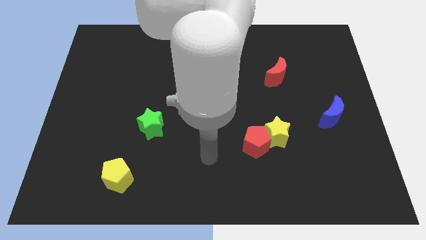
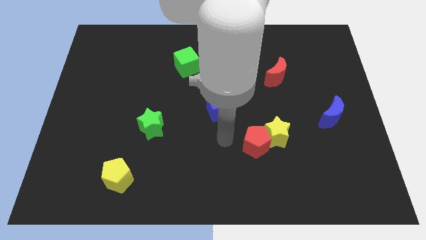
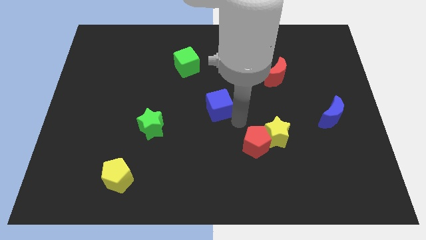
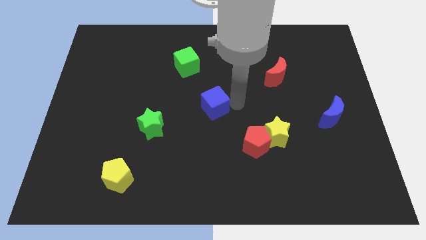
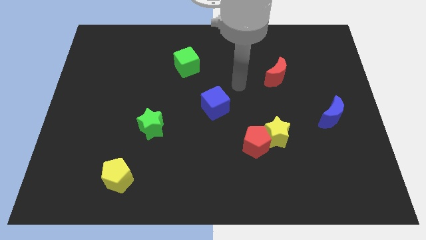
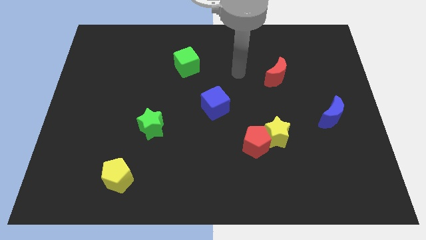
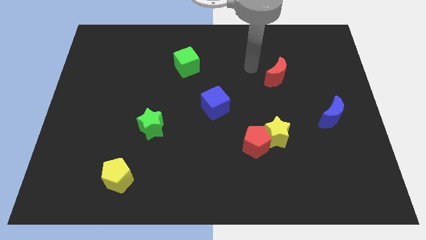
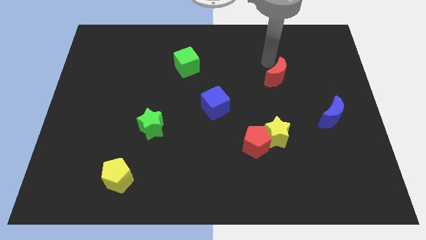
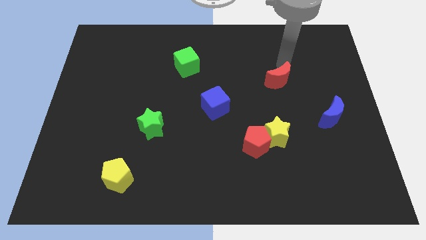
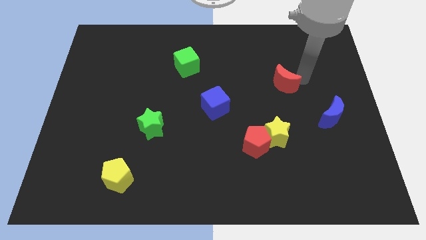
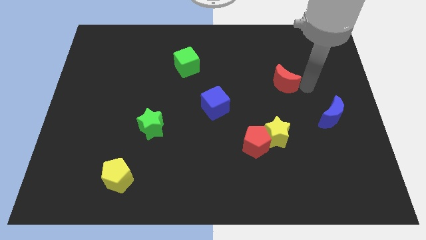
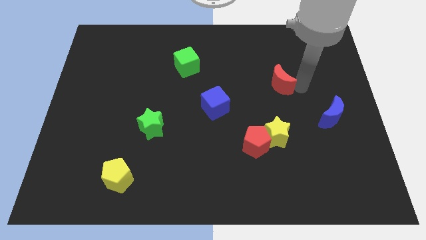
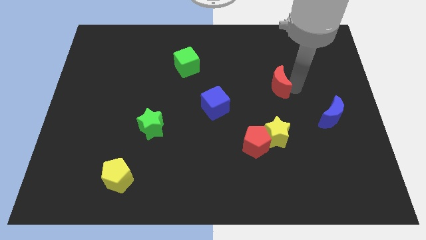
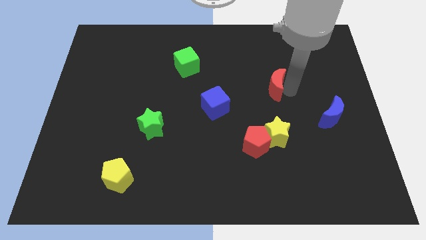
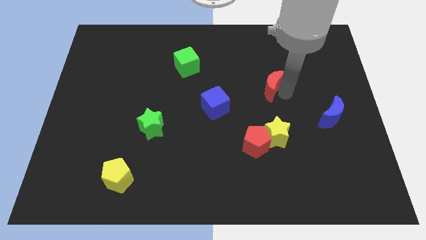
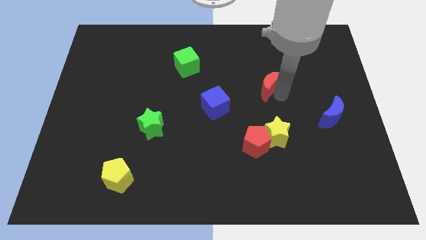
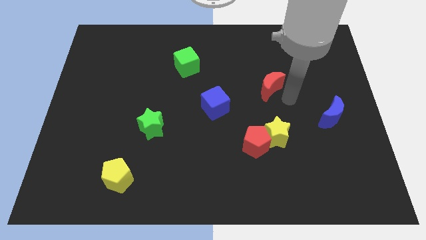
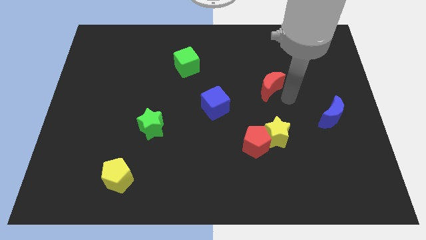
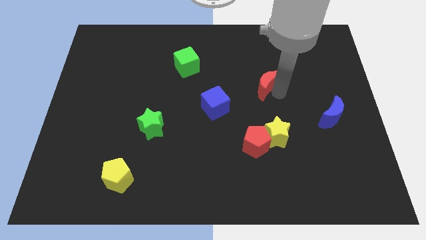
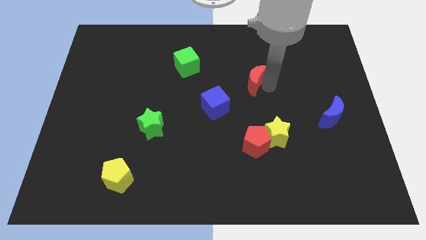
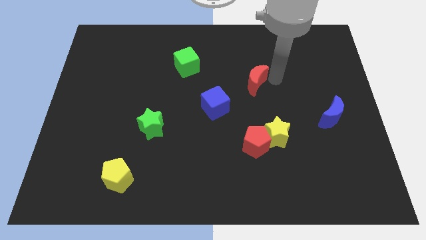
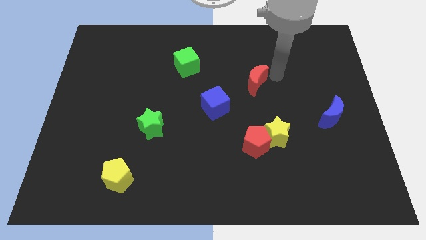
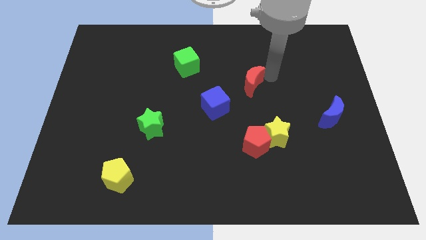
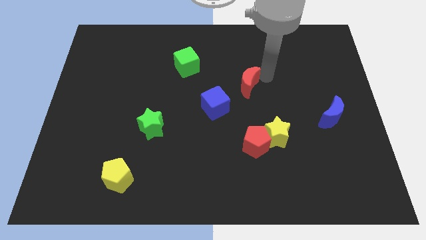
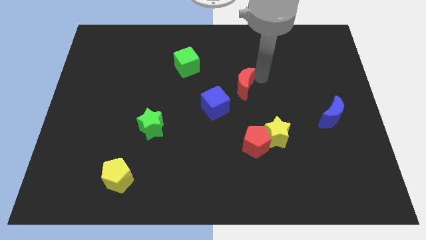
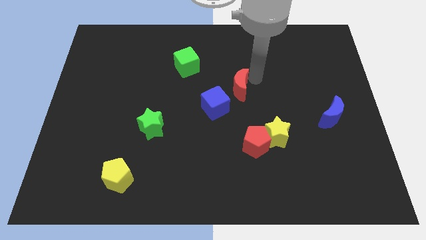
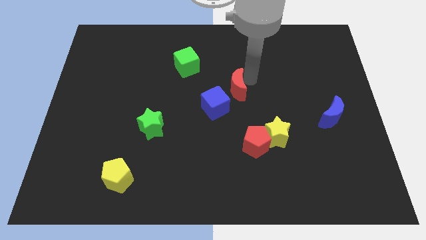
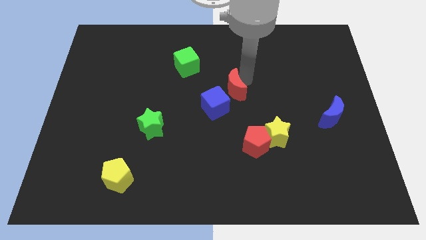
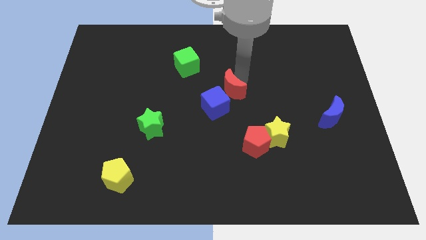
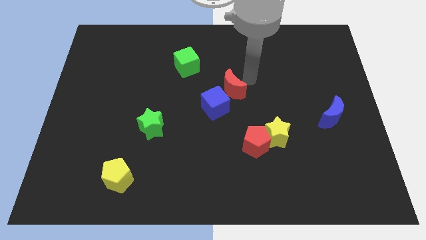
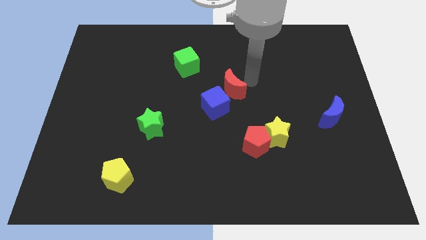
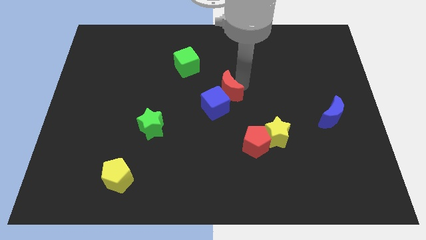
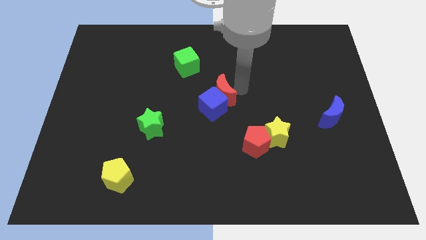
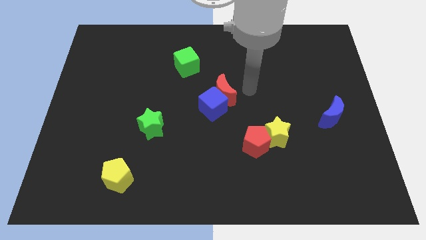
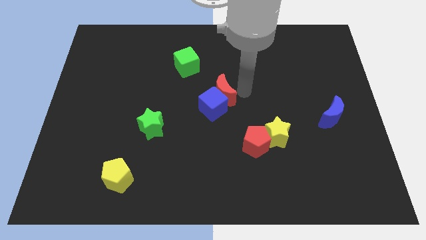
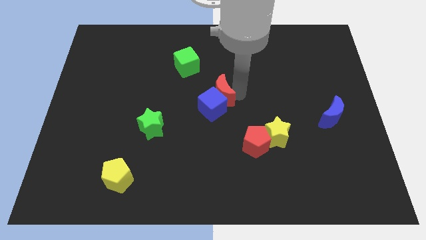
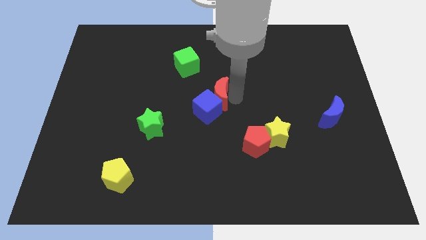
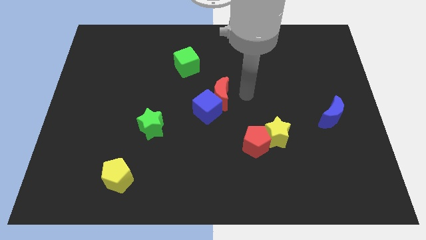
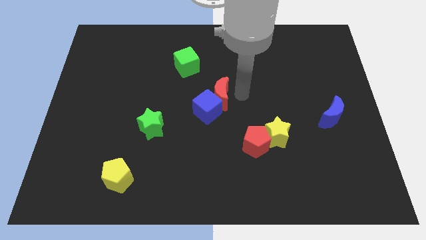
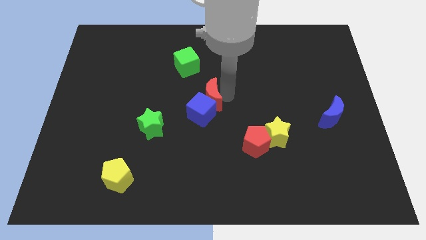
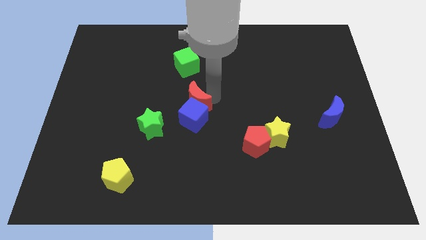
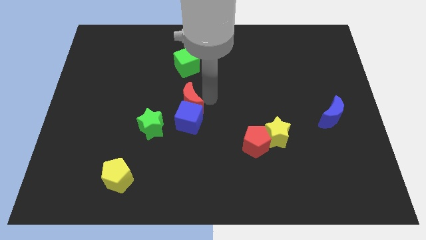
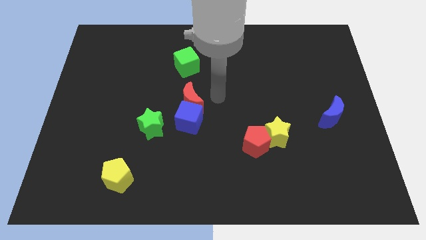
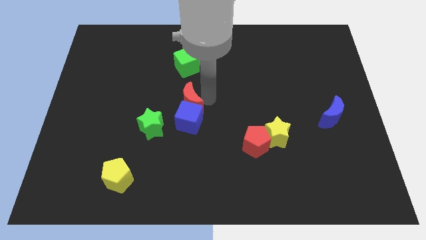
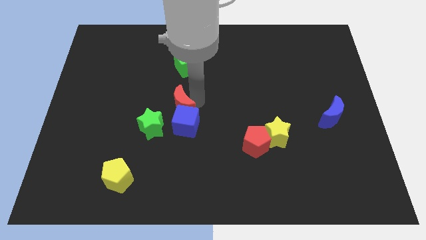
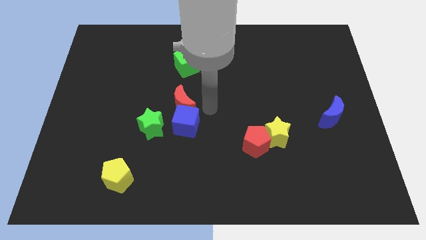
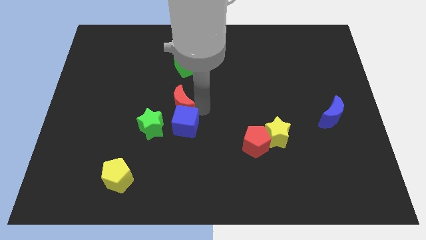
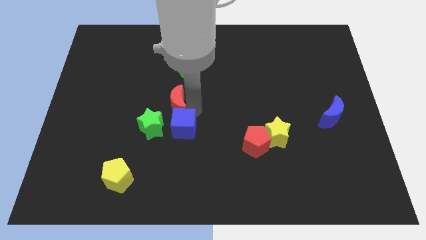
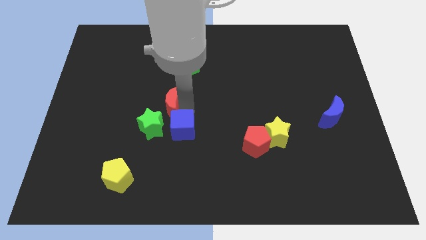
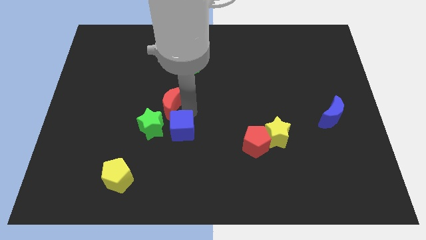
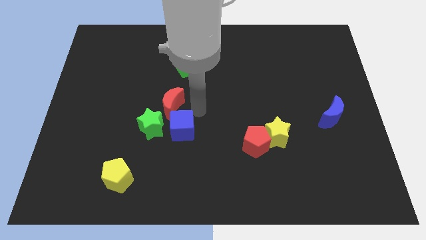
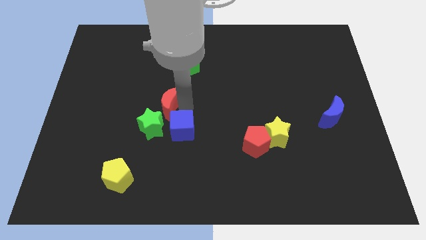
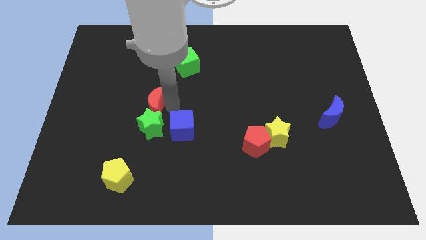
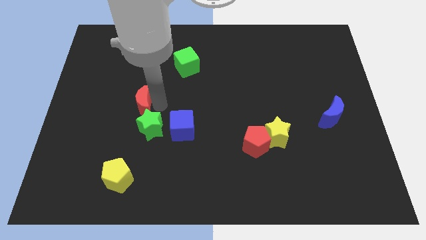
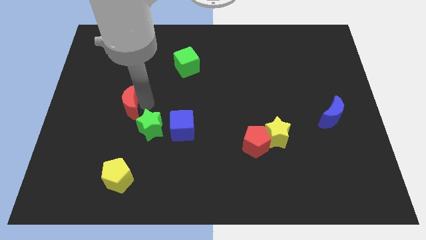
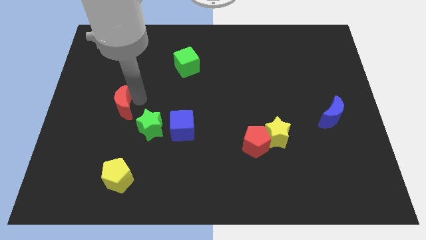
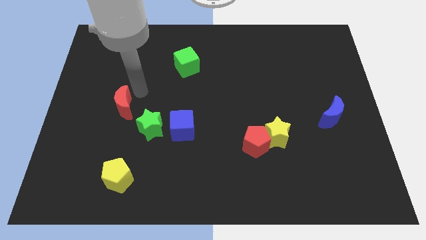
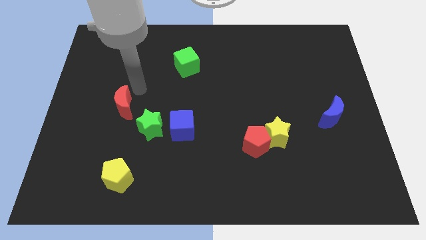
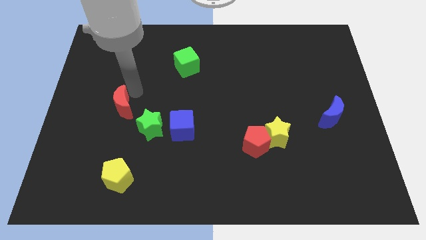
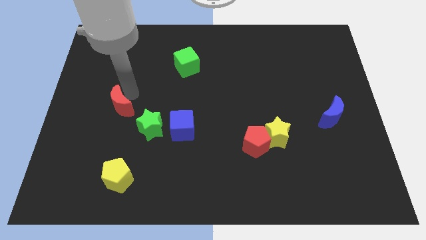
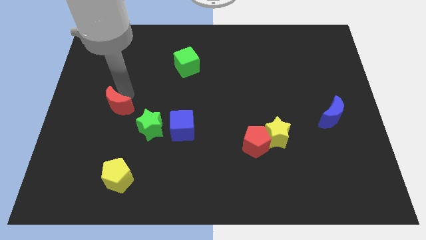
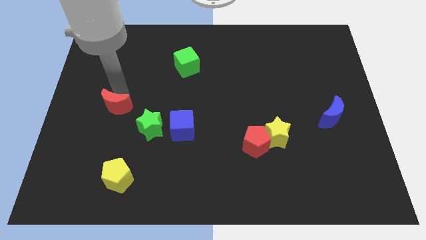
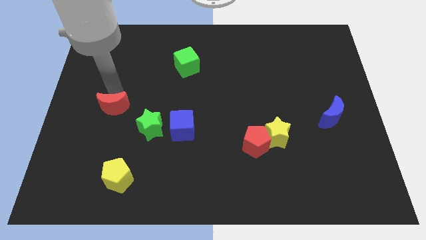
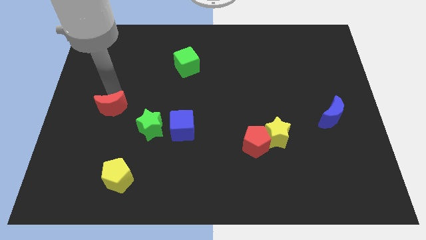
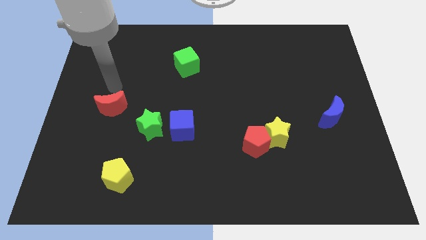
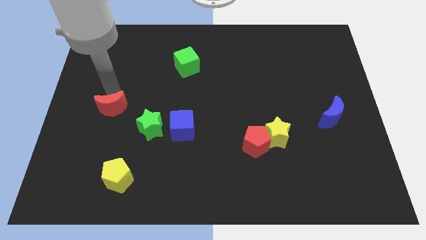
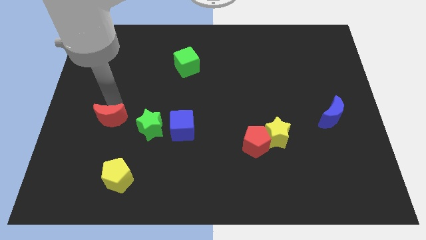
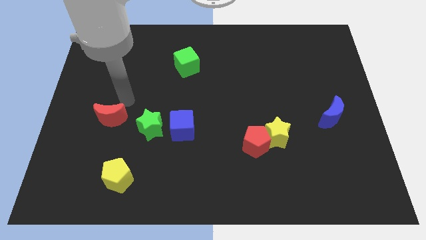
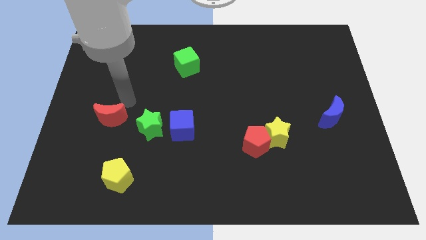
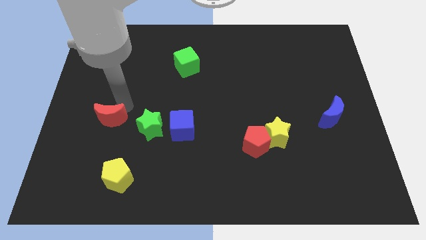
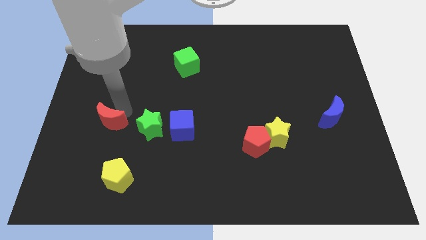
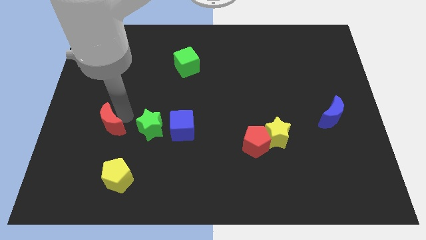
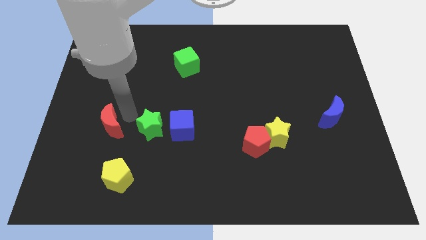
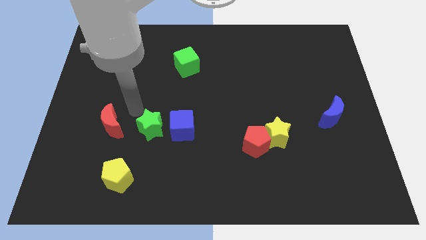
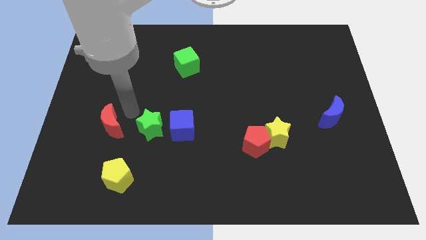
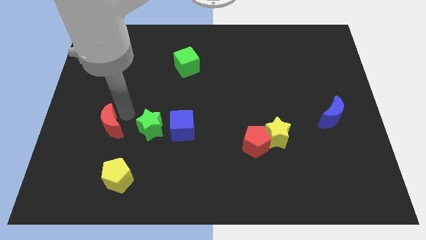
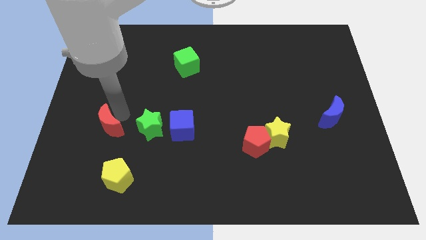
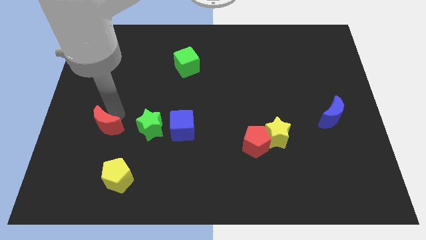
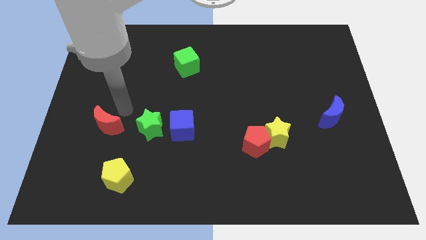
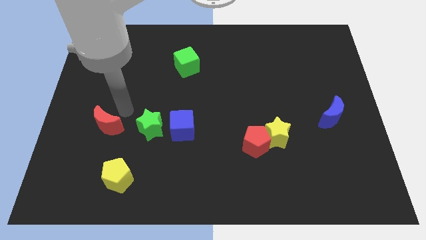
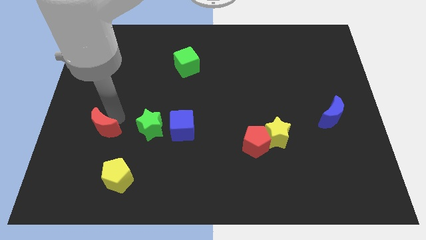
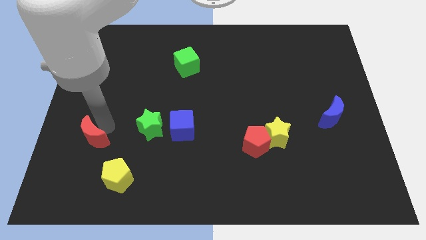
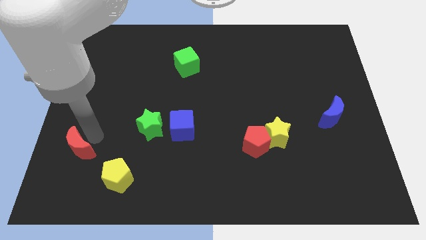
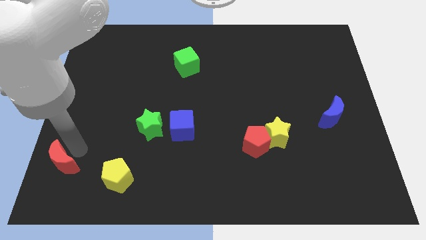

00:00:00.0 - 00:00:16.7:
put the red moon to the bottom left
